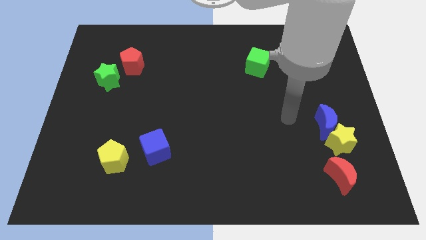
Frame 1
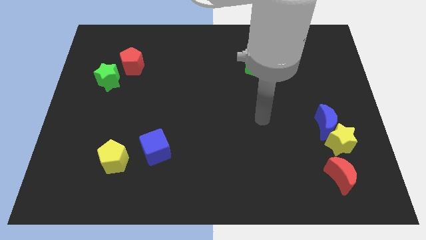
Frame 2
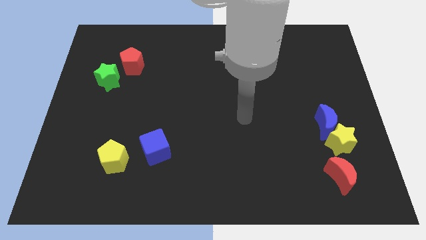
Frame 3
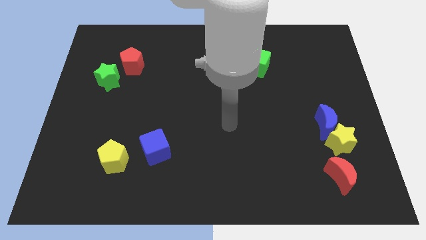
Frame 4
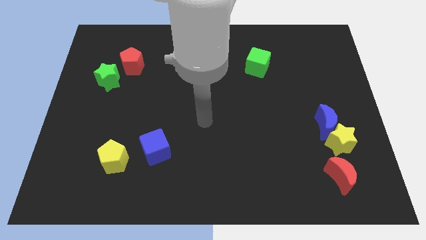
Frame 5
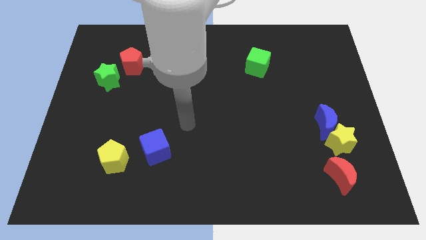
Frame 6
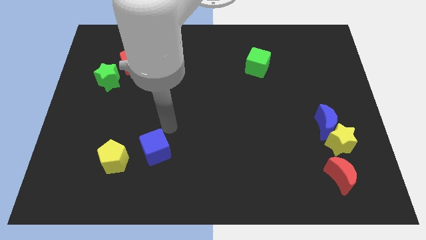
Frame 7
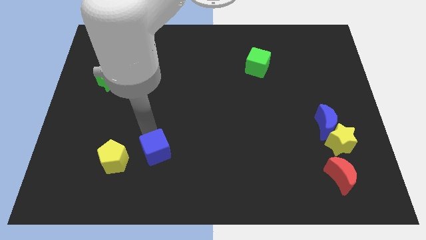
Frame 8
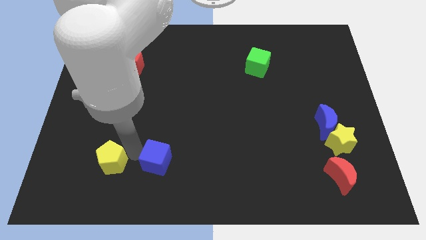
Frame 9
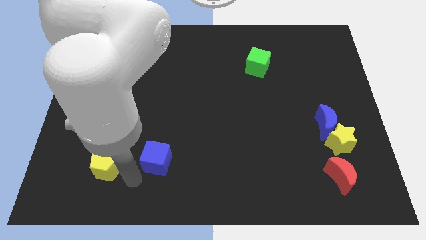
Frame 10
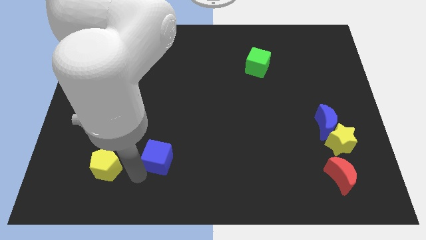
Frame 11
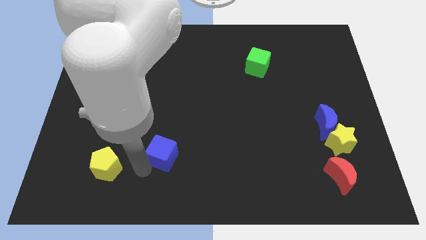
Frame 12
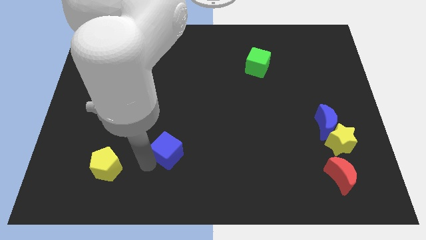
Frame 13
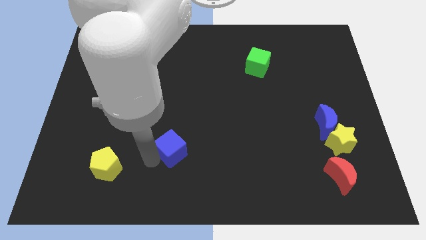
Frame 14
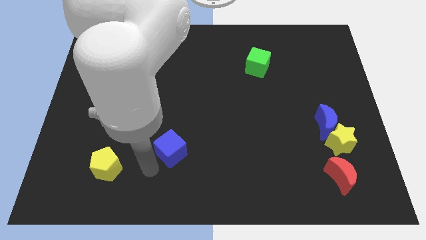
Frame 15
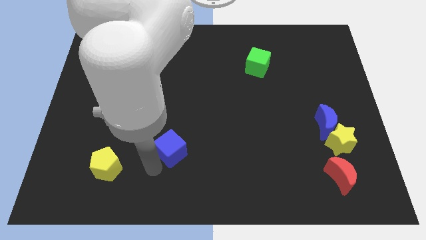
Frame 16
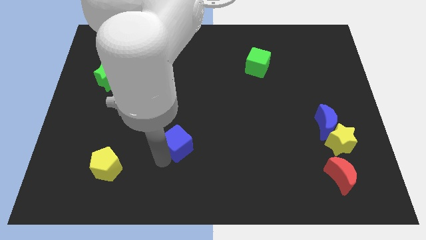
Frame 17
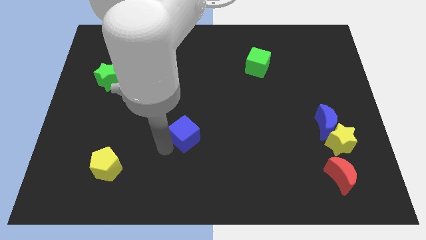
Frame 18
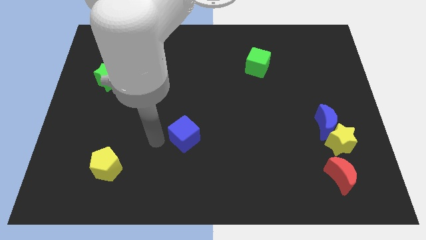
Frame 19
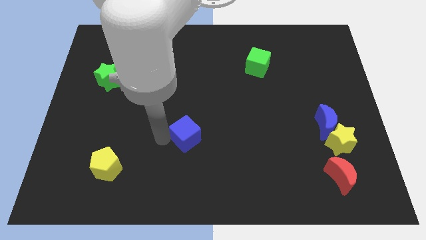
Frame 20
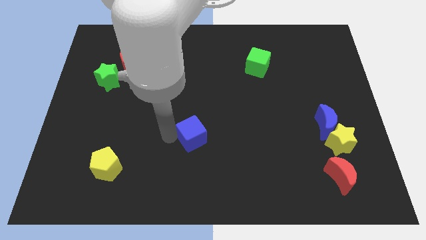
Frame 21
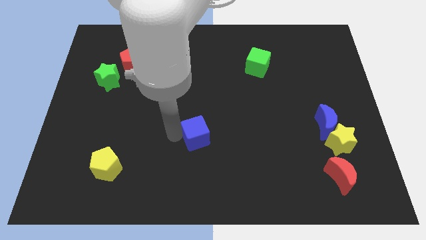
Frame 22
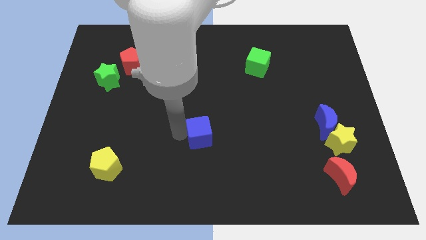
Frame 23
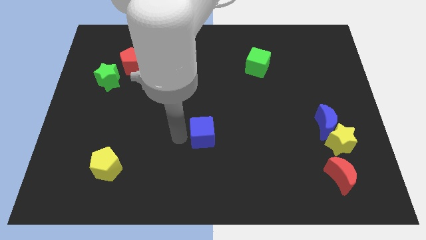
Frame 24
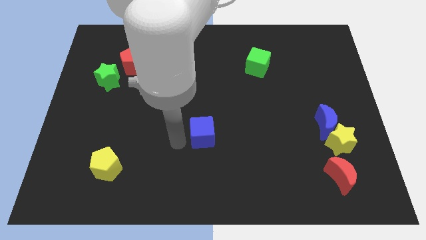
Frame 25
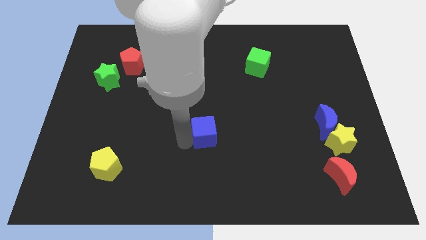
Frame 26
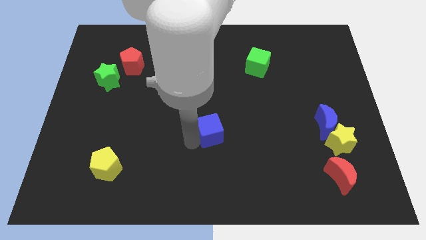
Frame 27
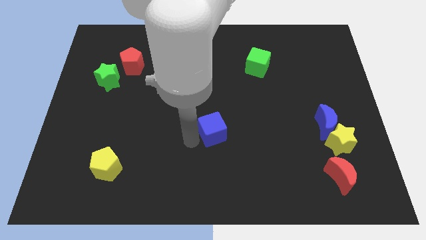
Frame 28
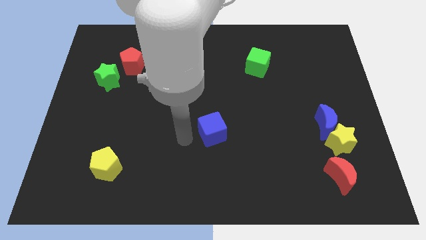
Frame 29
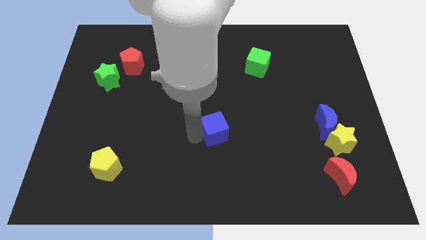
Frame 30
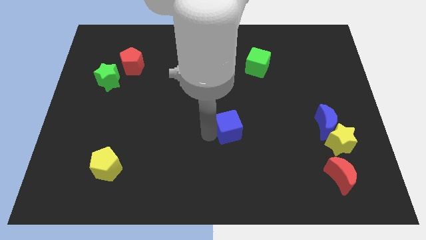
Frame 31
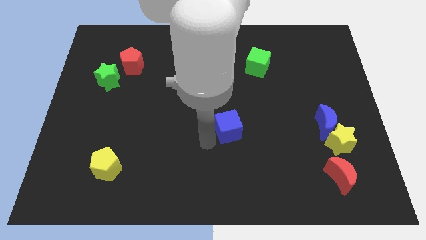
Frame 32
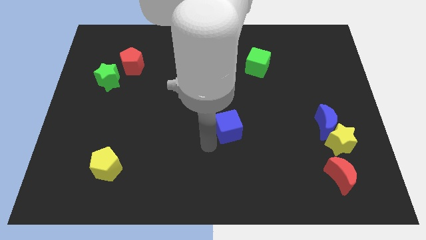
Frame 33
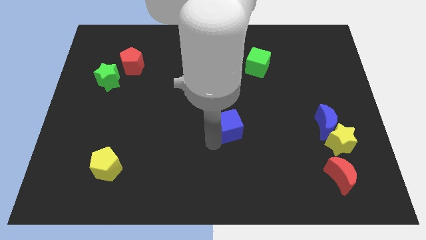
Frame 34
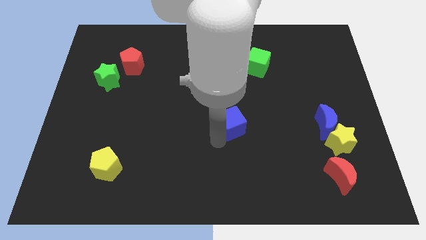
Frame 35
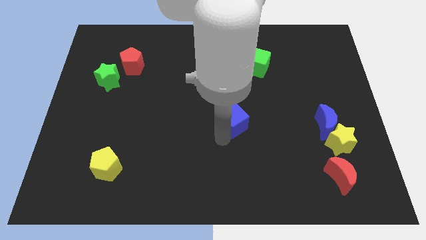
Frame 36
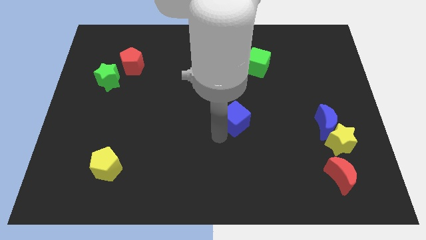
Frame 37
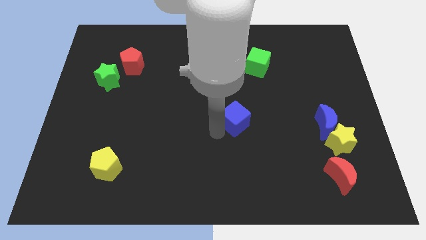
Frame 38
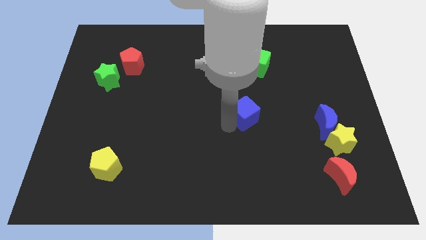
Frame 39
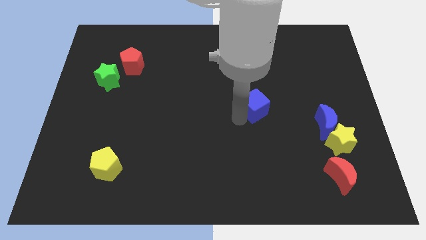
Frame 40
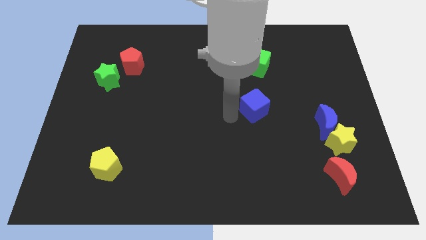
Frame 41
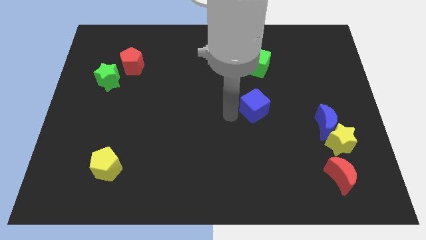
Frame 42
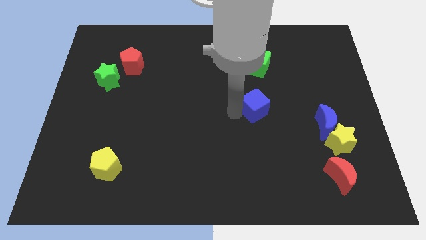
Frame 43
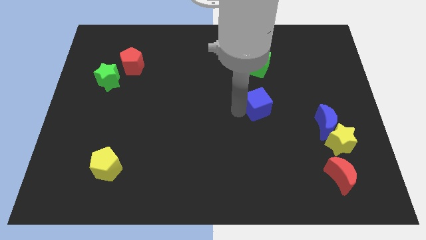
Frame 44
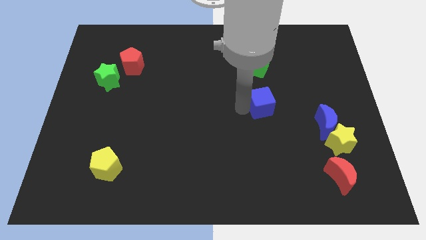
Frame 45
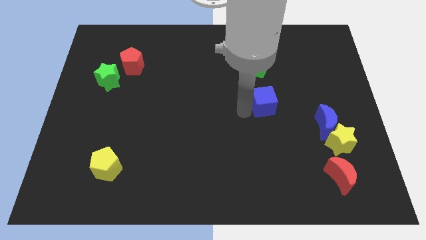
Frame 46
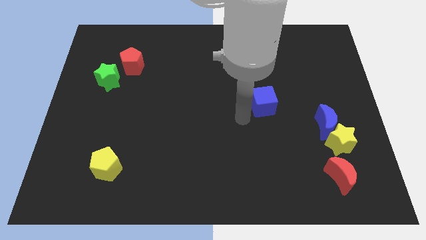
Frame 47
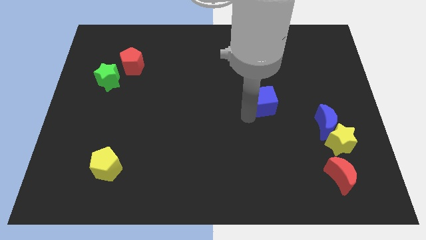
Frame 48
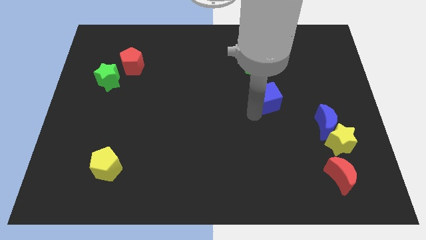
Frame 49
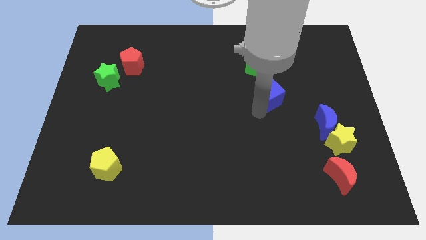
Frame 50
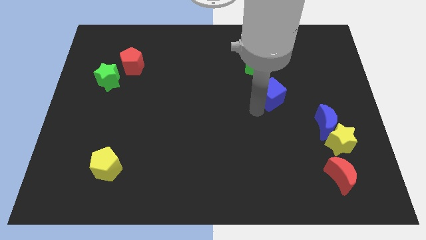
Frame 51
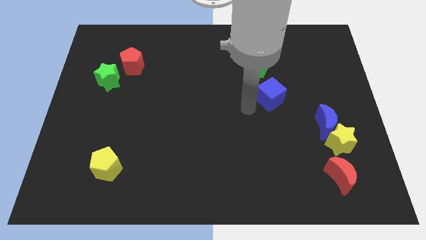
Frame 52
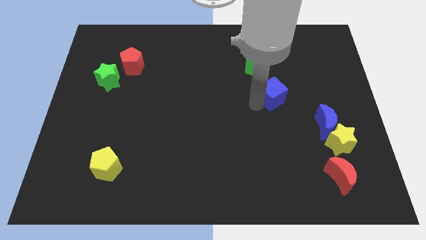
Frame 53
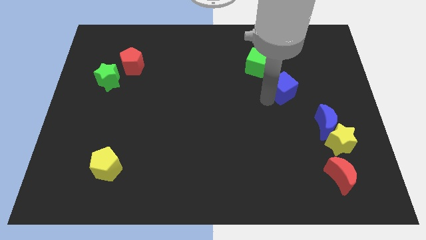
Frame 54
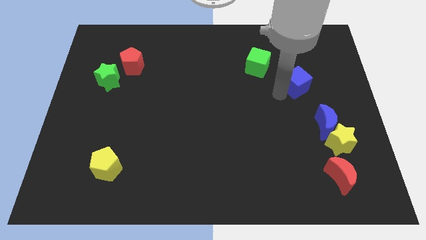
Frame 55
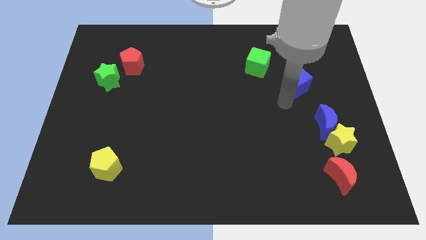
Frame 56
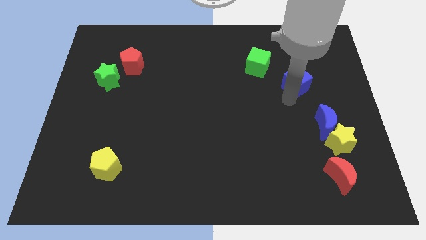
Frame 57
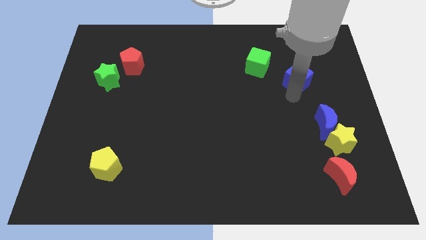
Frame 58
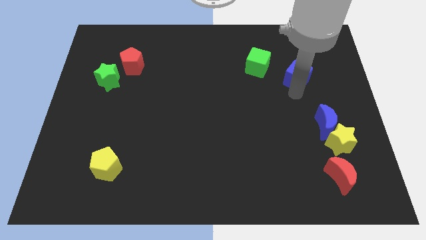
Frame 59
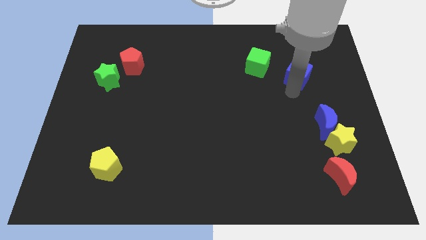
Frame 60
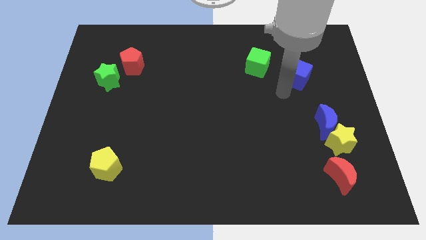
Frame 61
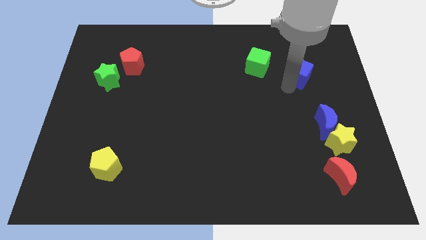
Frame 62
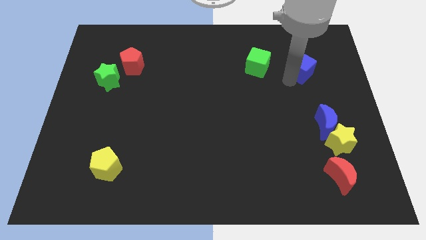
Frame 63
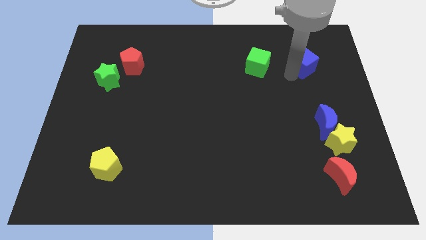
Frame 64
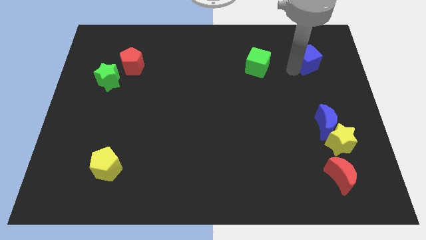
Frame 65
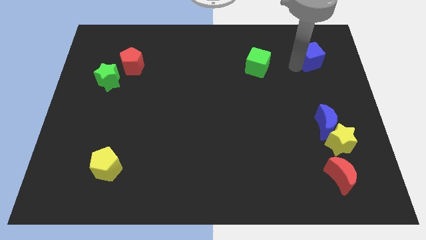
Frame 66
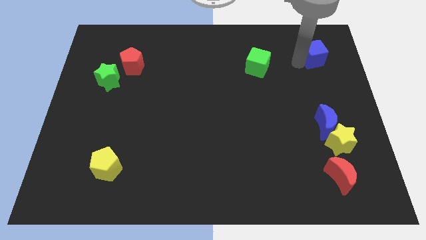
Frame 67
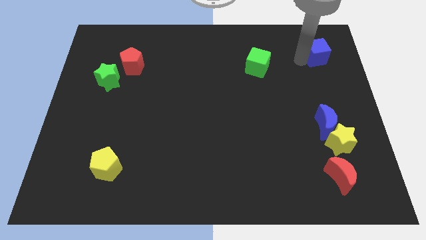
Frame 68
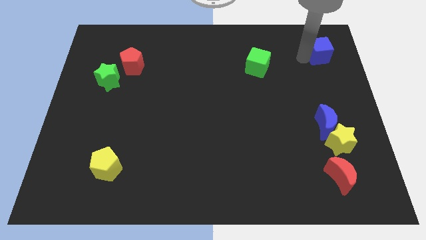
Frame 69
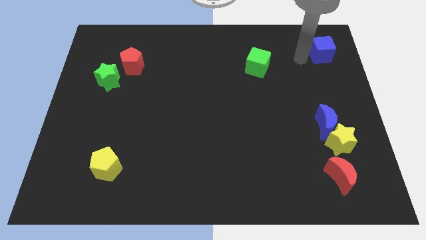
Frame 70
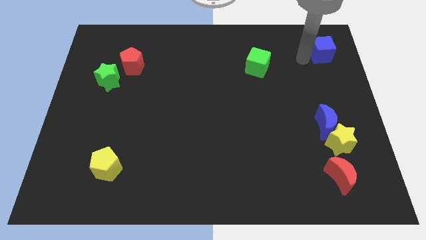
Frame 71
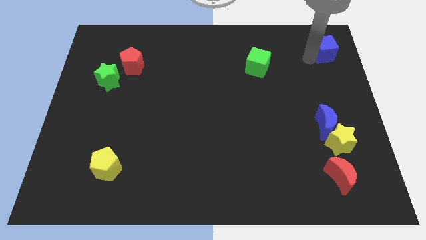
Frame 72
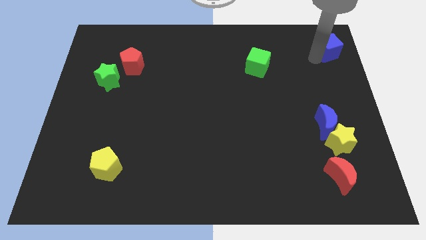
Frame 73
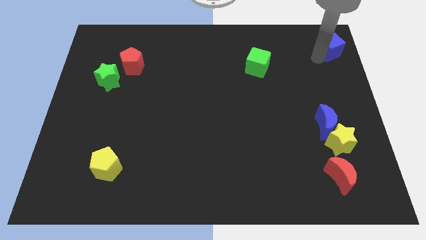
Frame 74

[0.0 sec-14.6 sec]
put the blue cube to the top right
